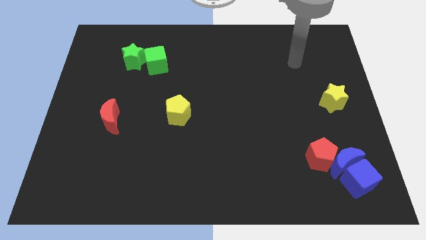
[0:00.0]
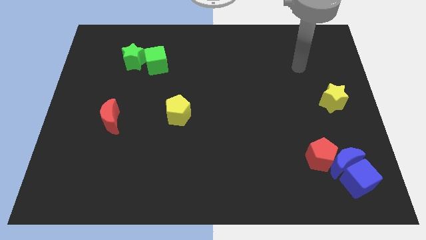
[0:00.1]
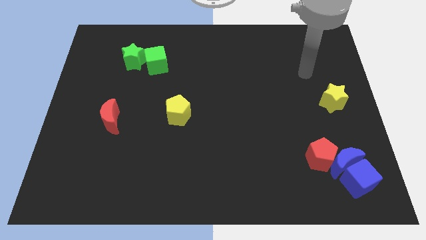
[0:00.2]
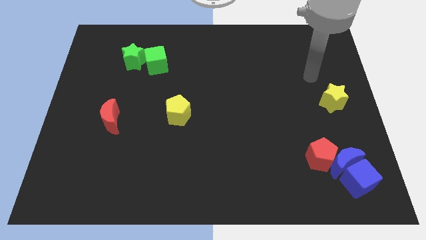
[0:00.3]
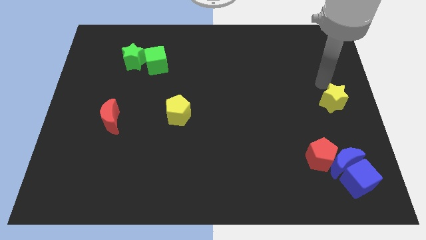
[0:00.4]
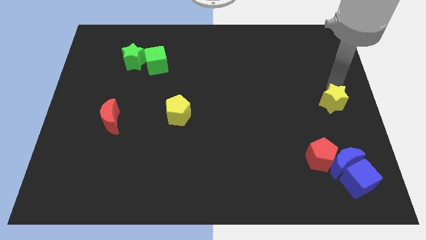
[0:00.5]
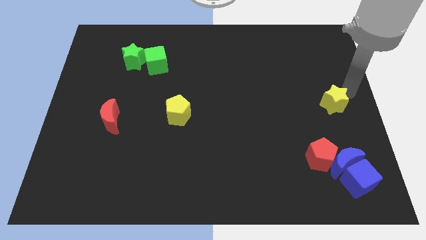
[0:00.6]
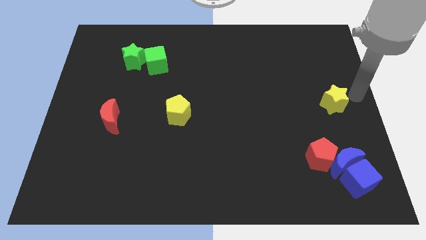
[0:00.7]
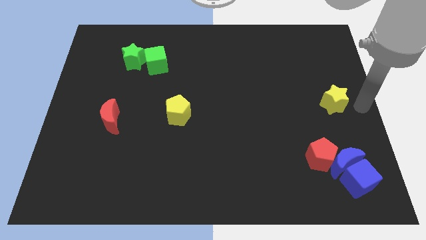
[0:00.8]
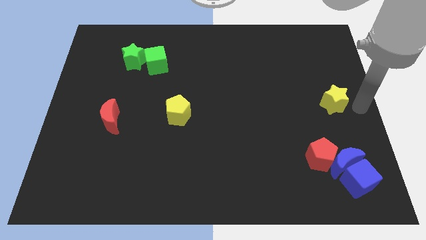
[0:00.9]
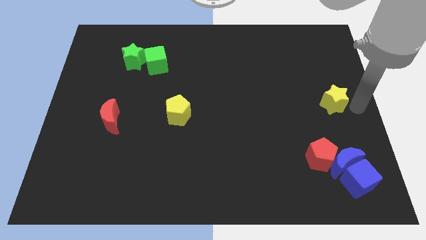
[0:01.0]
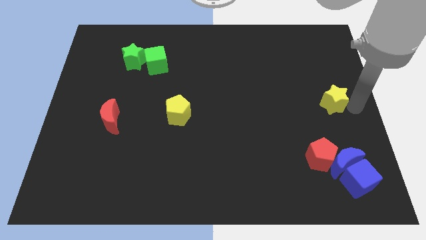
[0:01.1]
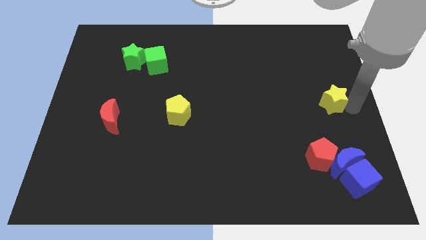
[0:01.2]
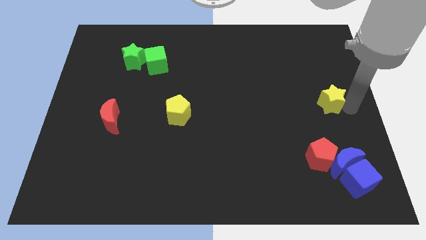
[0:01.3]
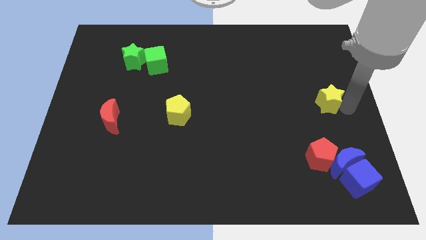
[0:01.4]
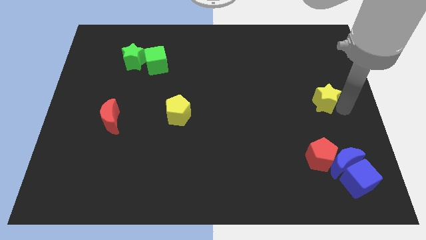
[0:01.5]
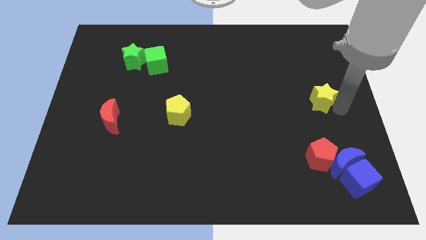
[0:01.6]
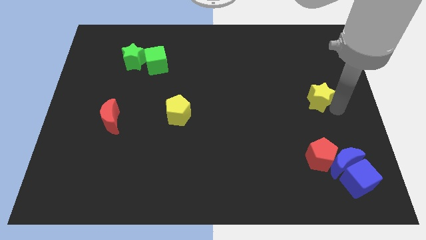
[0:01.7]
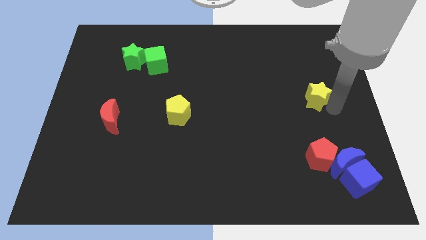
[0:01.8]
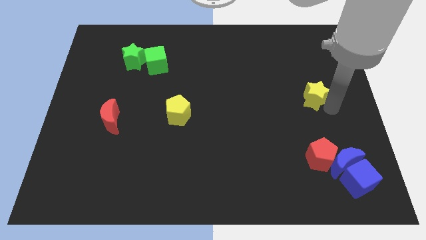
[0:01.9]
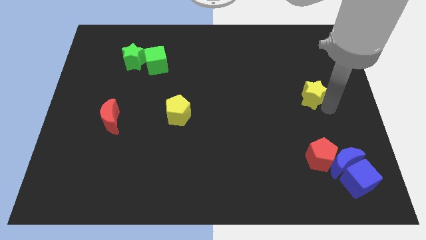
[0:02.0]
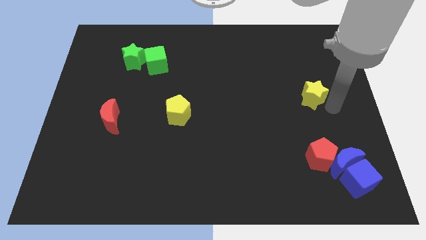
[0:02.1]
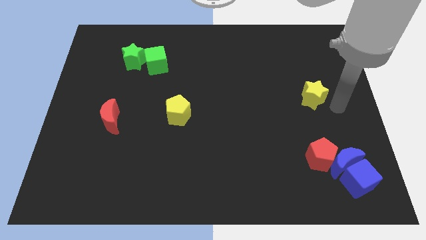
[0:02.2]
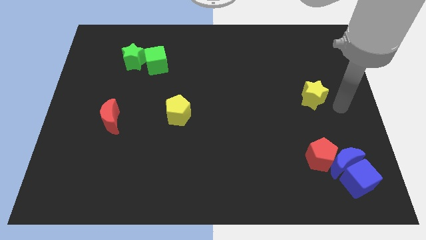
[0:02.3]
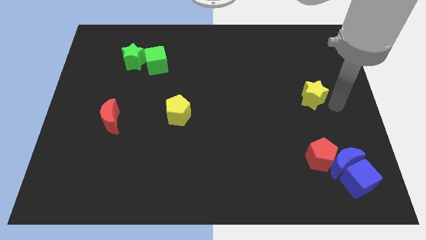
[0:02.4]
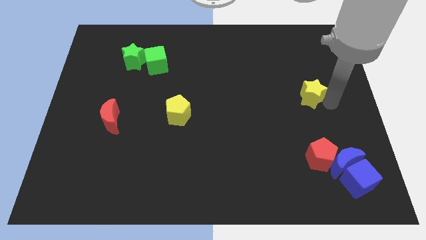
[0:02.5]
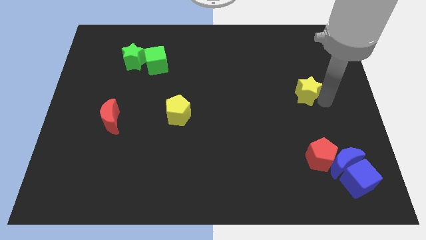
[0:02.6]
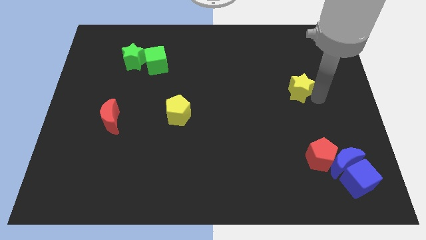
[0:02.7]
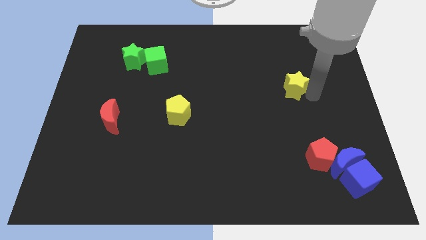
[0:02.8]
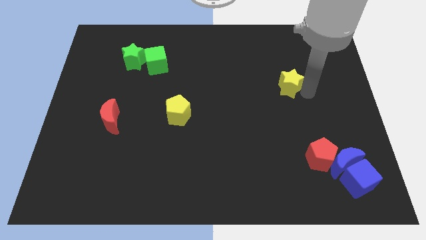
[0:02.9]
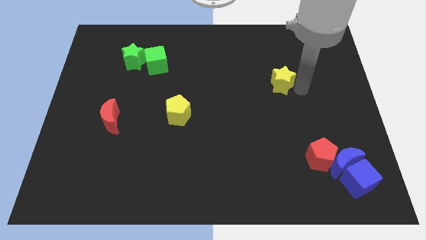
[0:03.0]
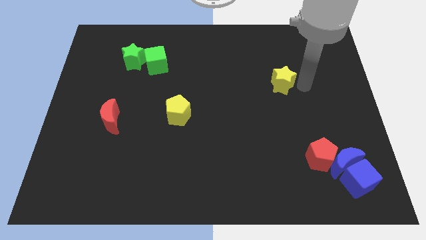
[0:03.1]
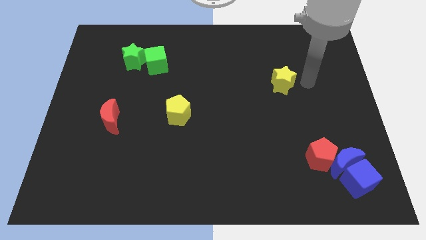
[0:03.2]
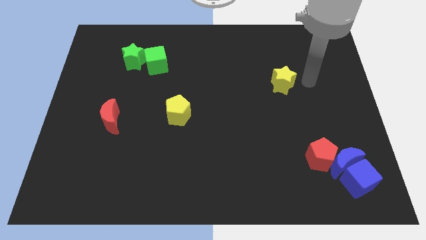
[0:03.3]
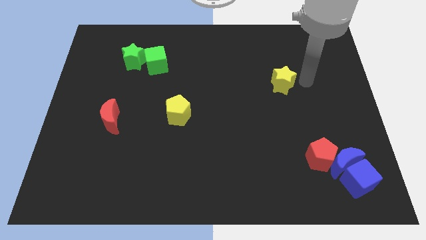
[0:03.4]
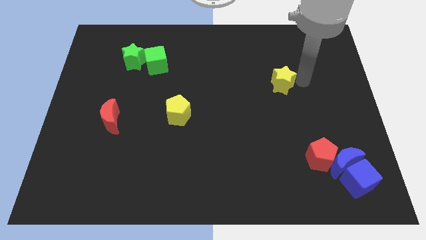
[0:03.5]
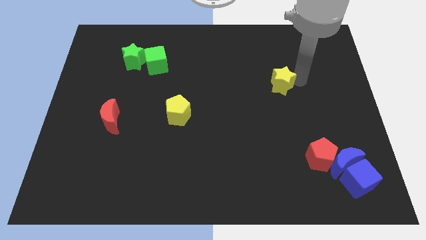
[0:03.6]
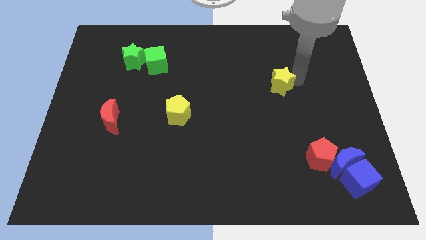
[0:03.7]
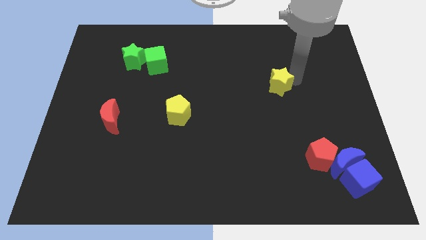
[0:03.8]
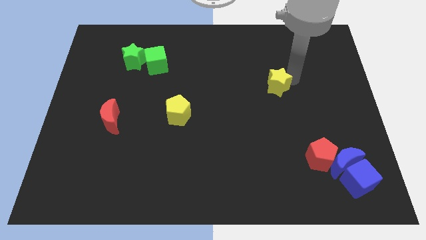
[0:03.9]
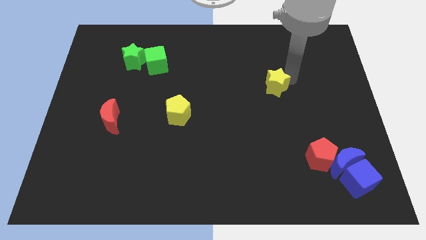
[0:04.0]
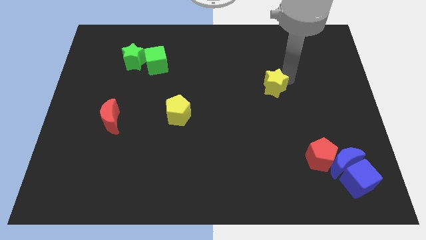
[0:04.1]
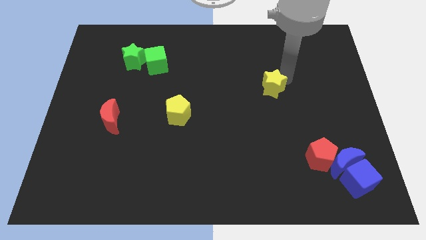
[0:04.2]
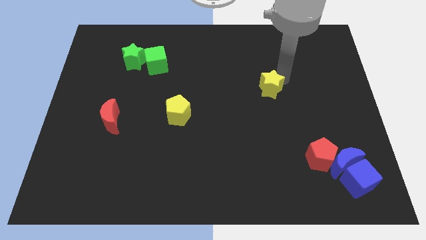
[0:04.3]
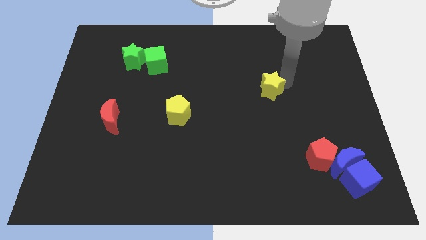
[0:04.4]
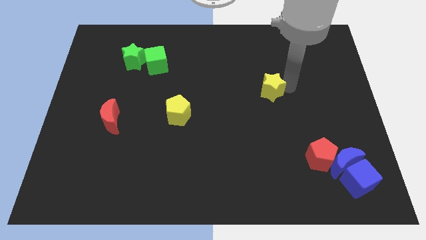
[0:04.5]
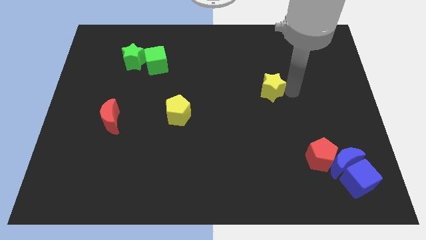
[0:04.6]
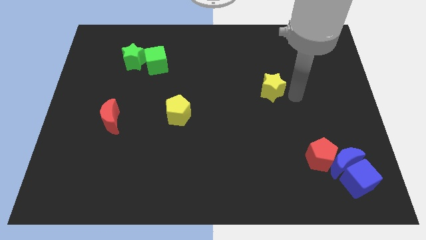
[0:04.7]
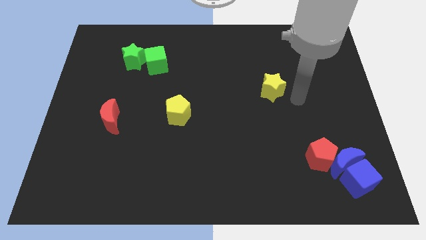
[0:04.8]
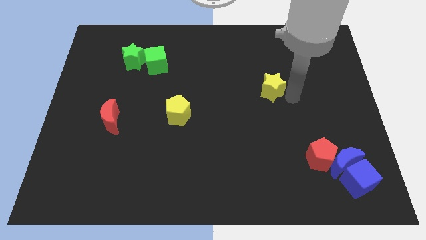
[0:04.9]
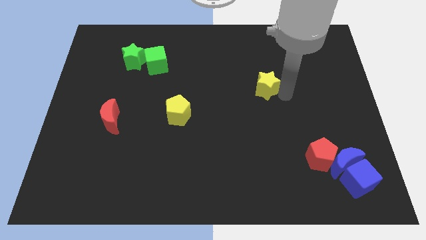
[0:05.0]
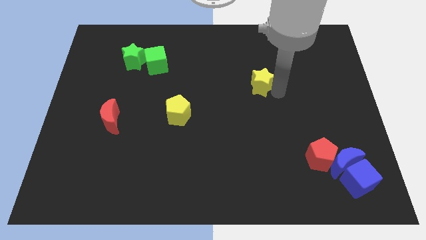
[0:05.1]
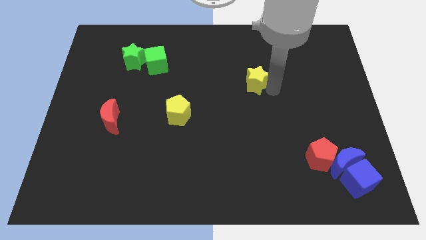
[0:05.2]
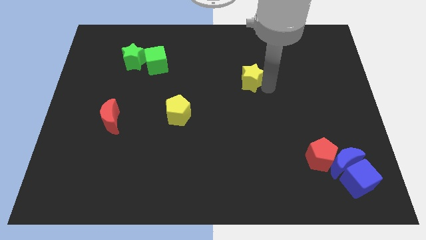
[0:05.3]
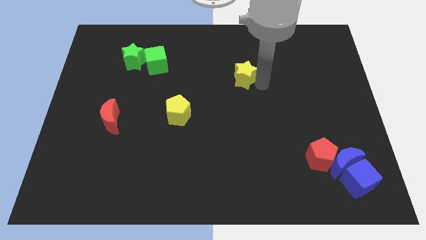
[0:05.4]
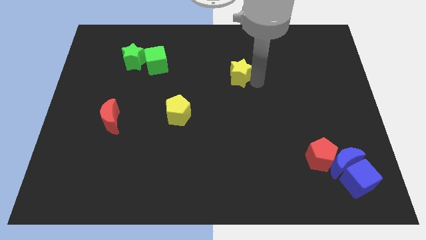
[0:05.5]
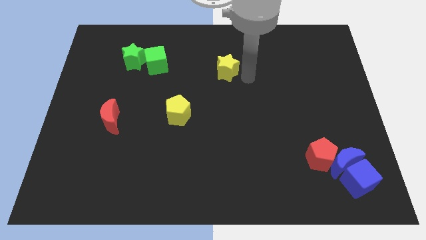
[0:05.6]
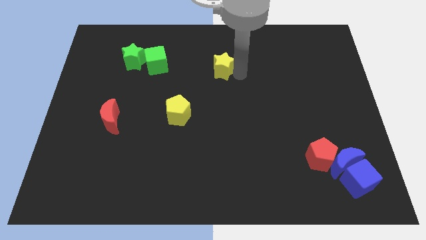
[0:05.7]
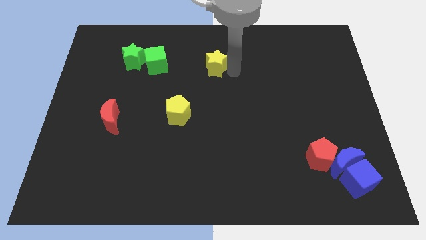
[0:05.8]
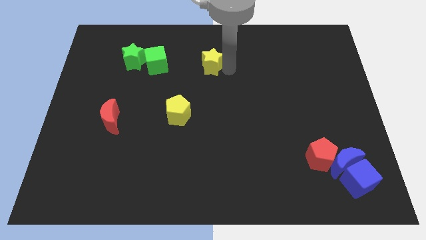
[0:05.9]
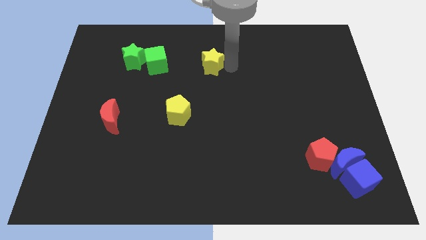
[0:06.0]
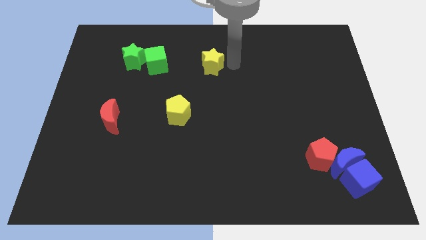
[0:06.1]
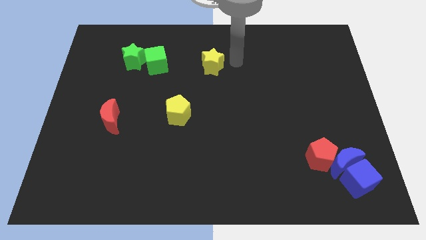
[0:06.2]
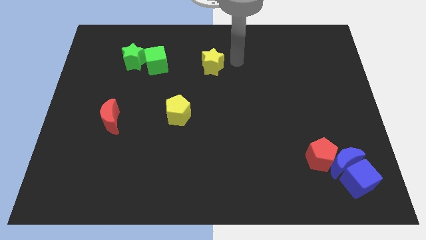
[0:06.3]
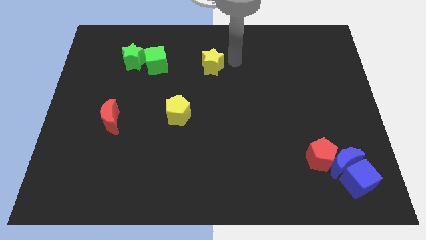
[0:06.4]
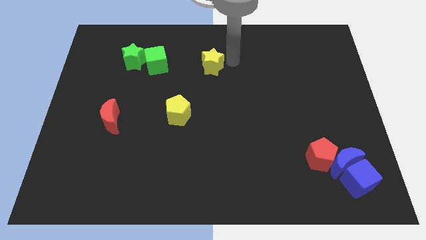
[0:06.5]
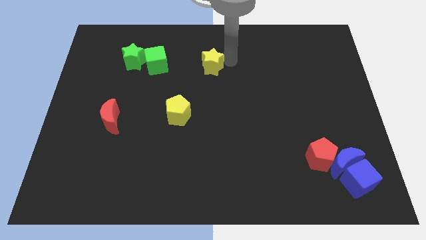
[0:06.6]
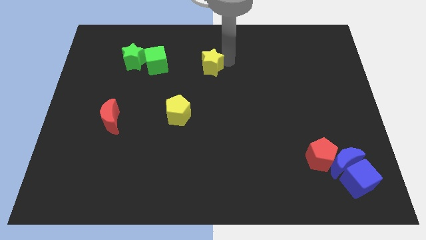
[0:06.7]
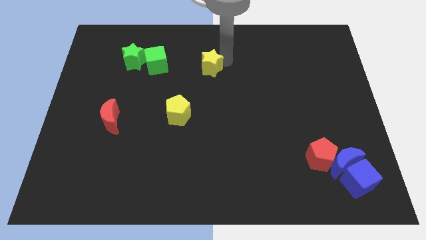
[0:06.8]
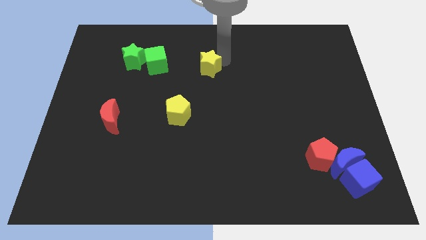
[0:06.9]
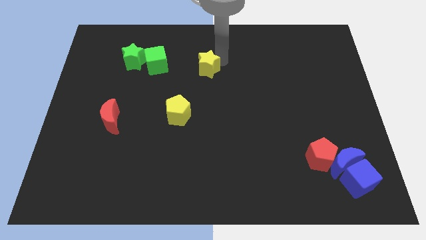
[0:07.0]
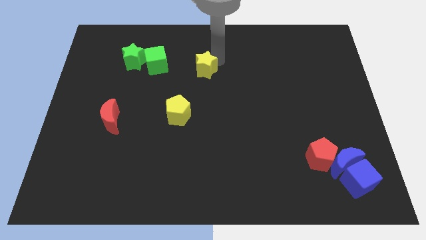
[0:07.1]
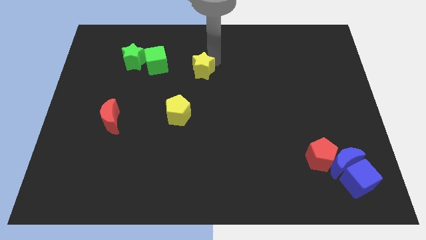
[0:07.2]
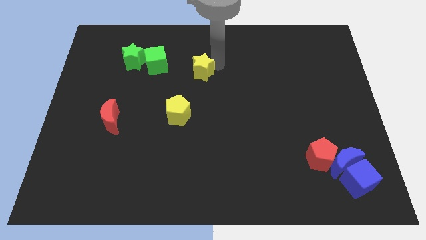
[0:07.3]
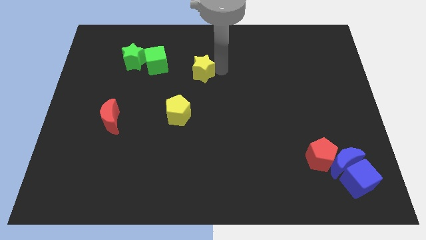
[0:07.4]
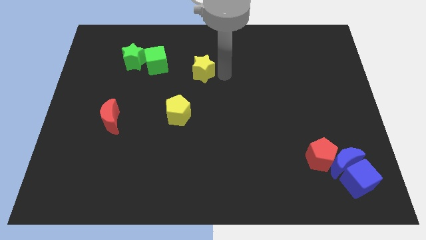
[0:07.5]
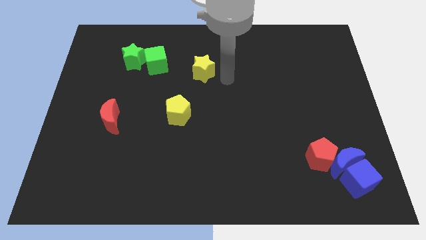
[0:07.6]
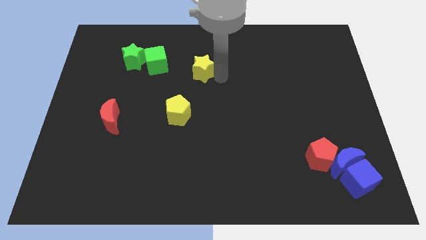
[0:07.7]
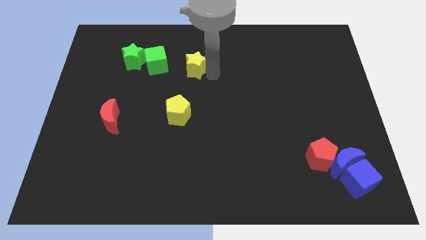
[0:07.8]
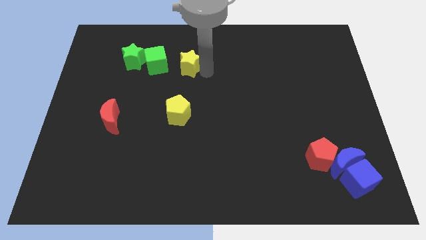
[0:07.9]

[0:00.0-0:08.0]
slide the yellow star to the right side of the green star
